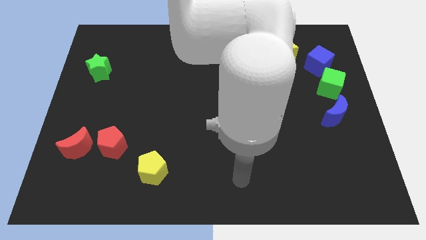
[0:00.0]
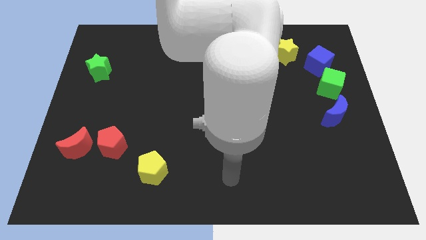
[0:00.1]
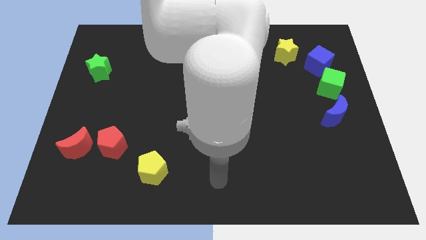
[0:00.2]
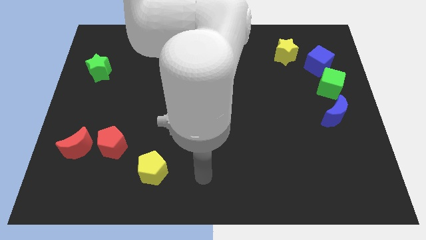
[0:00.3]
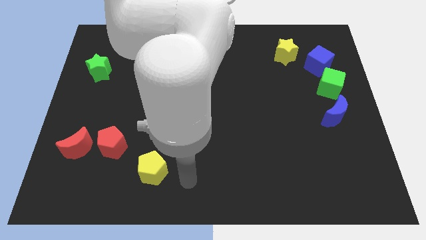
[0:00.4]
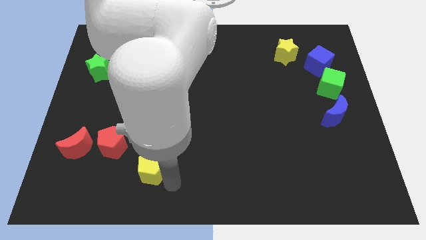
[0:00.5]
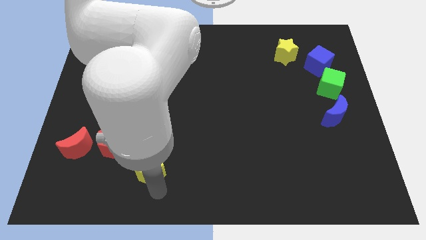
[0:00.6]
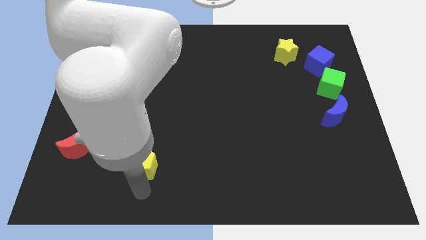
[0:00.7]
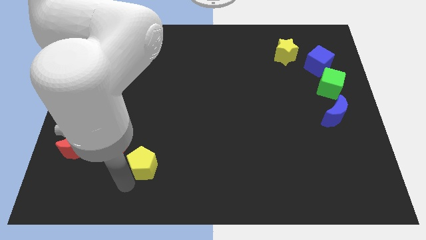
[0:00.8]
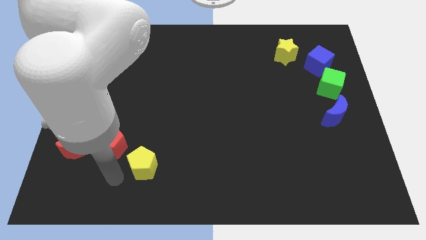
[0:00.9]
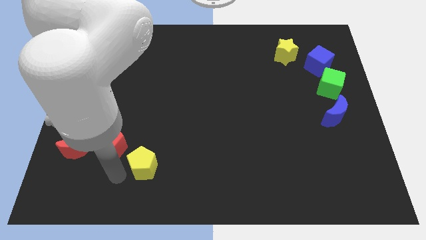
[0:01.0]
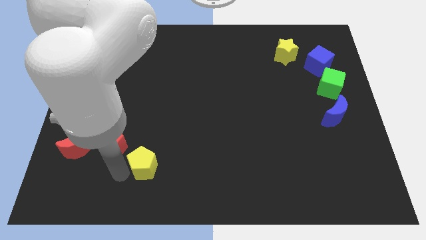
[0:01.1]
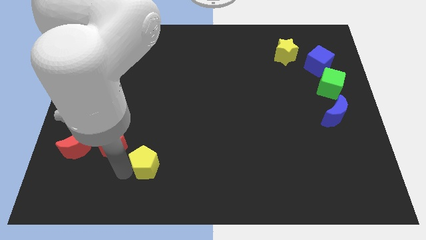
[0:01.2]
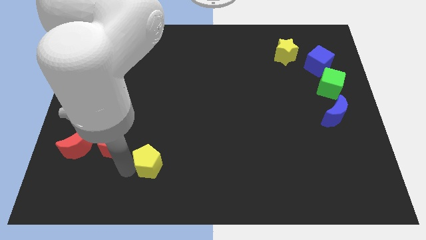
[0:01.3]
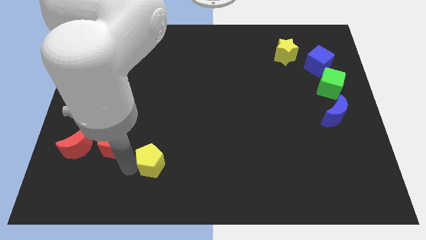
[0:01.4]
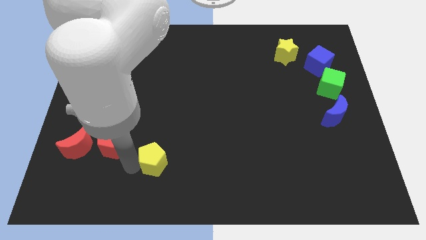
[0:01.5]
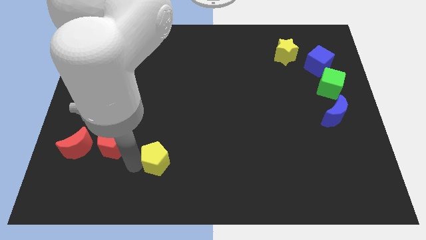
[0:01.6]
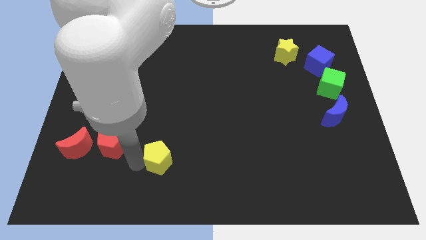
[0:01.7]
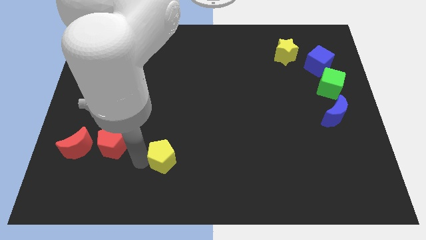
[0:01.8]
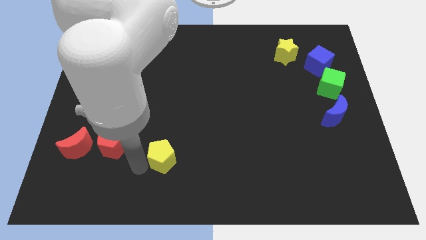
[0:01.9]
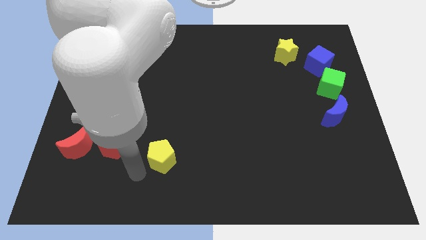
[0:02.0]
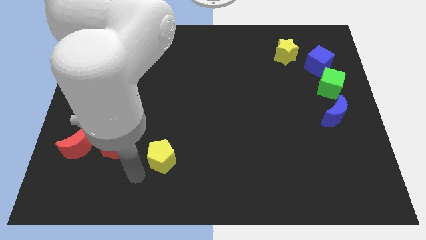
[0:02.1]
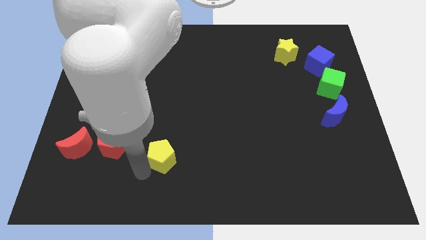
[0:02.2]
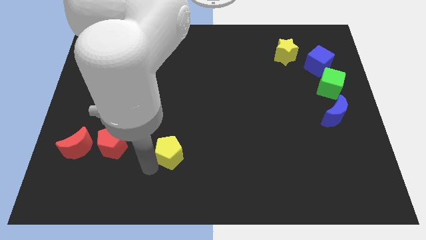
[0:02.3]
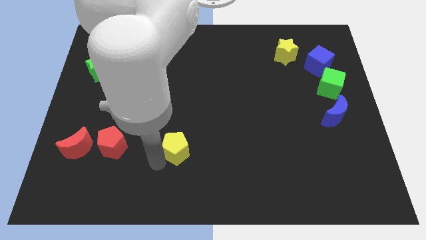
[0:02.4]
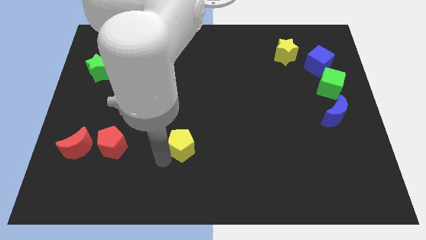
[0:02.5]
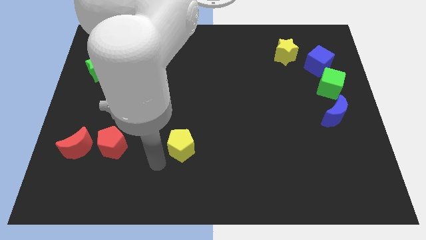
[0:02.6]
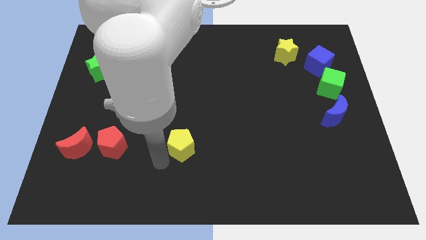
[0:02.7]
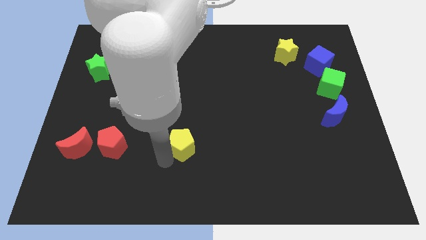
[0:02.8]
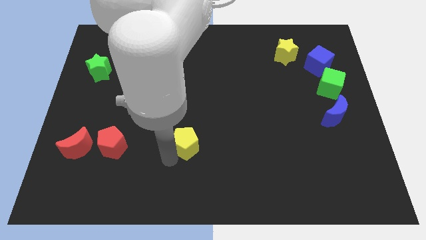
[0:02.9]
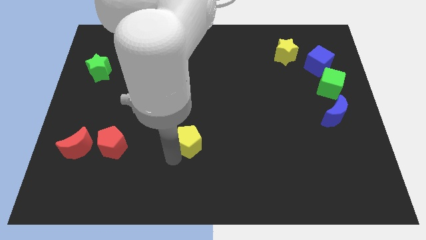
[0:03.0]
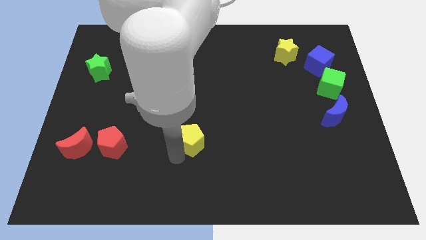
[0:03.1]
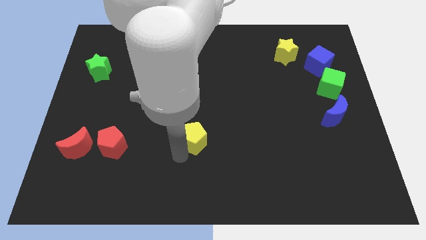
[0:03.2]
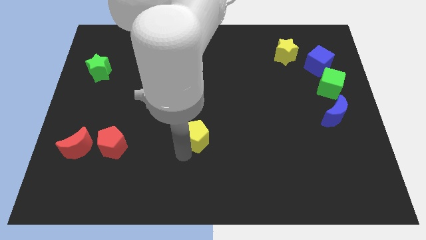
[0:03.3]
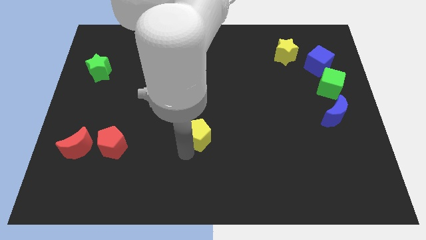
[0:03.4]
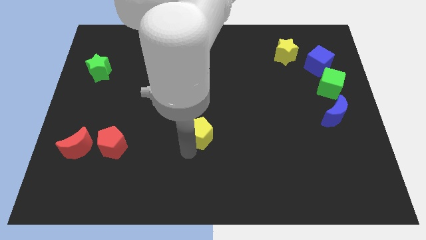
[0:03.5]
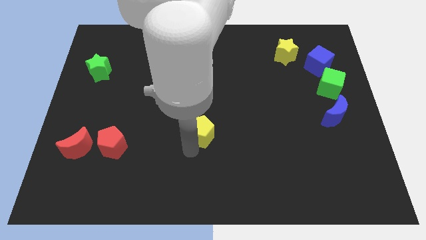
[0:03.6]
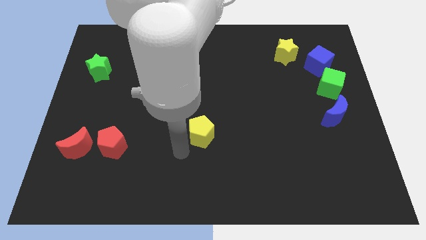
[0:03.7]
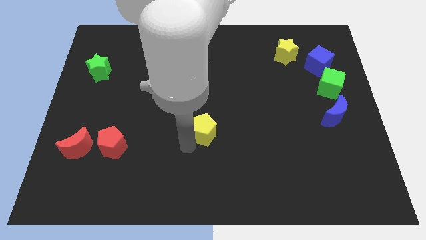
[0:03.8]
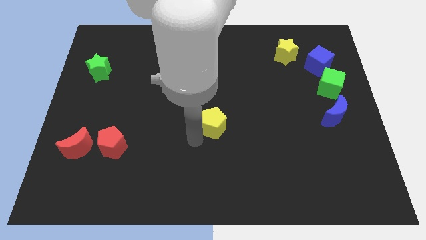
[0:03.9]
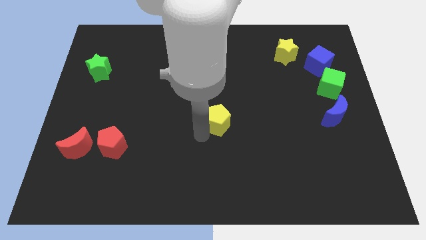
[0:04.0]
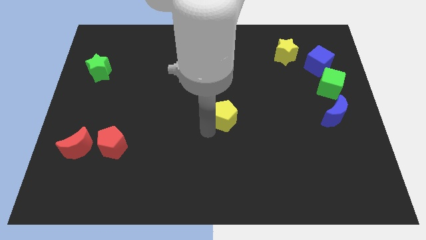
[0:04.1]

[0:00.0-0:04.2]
slide the yellow pentagon up and to the right diagonally

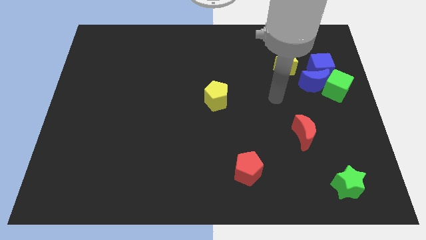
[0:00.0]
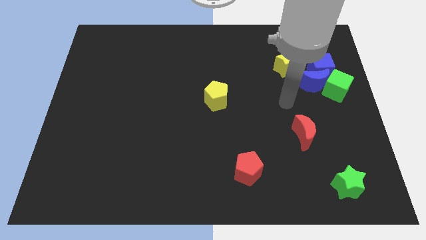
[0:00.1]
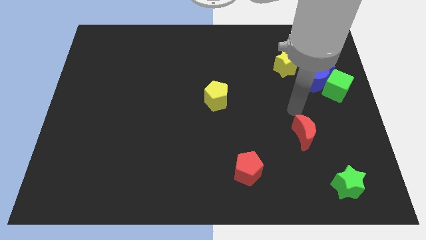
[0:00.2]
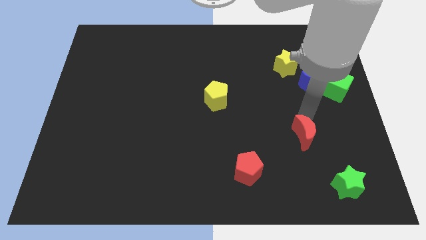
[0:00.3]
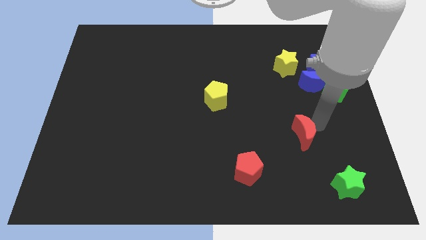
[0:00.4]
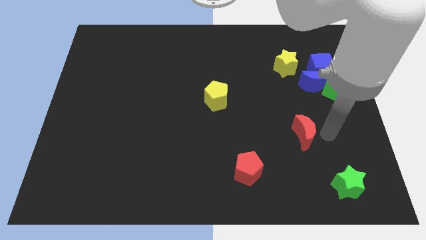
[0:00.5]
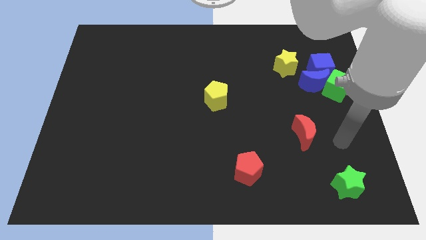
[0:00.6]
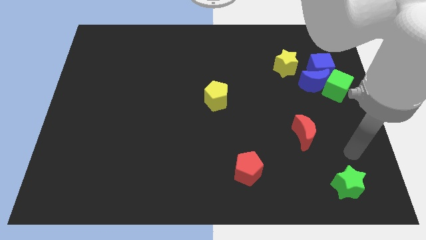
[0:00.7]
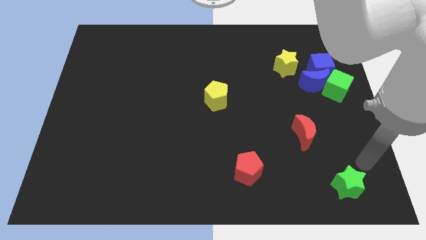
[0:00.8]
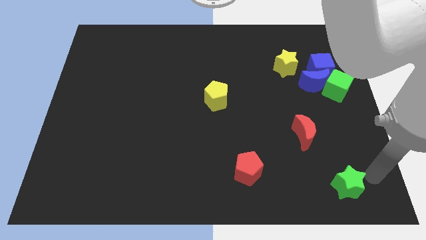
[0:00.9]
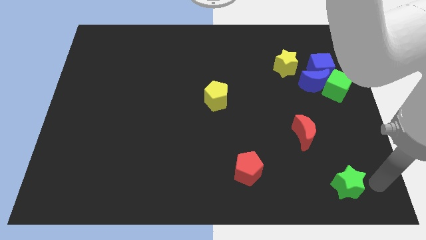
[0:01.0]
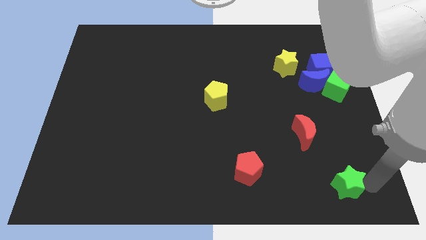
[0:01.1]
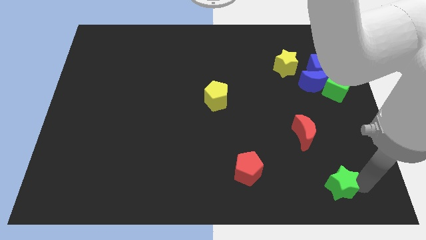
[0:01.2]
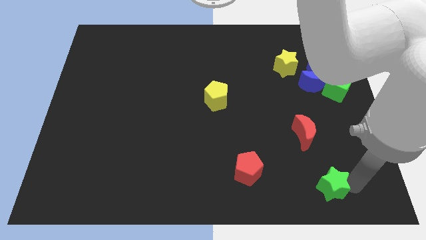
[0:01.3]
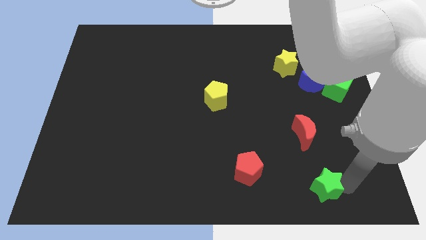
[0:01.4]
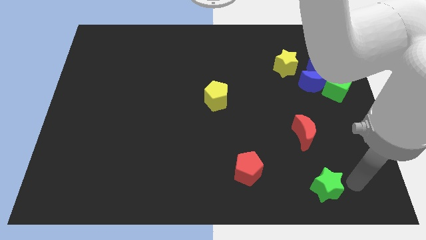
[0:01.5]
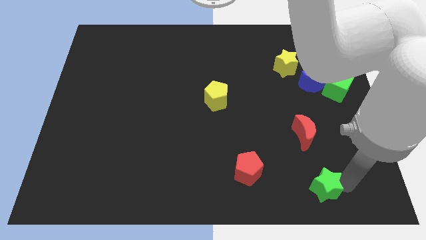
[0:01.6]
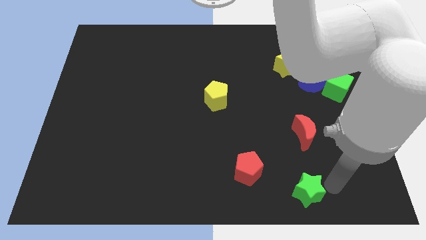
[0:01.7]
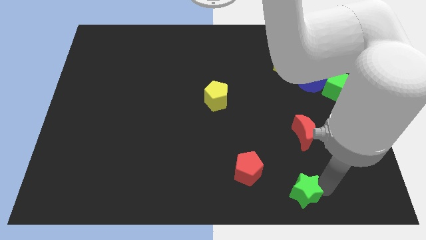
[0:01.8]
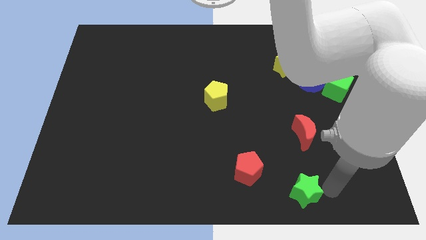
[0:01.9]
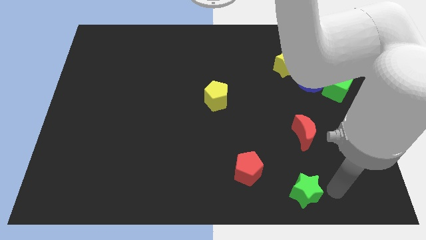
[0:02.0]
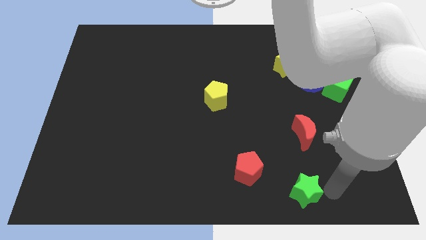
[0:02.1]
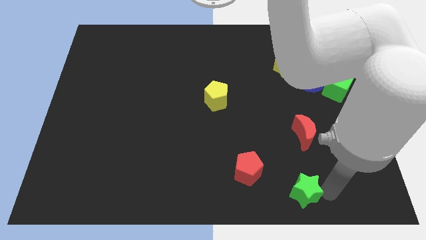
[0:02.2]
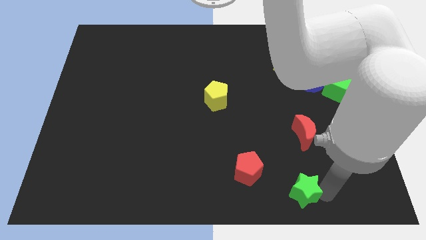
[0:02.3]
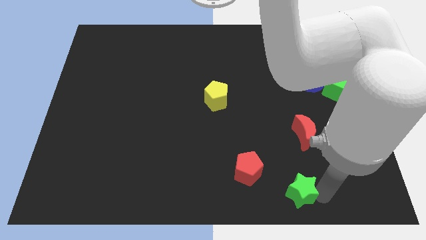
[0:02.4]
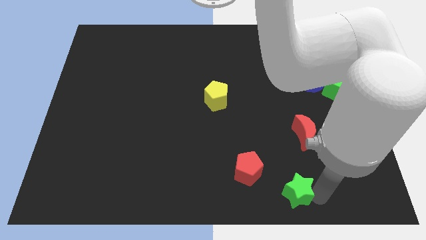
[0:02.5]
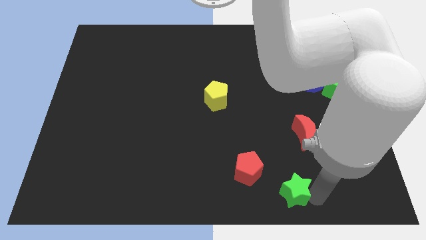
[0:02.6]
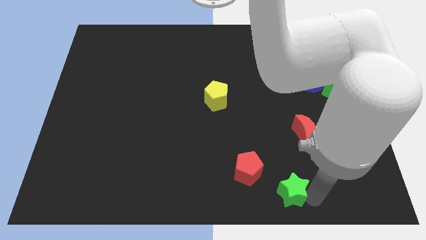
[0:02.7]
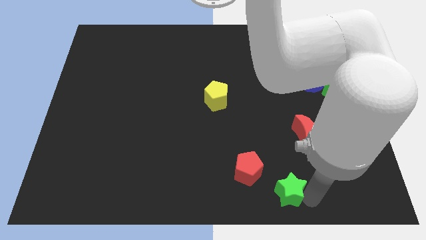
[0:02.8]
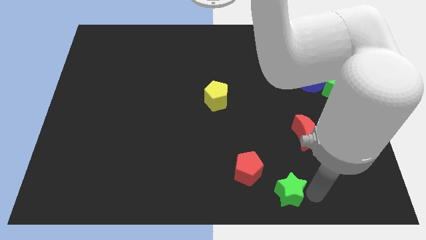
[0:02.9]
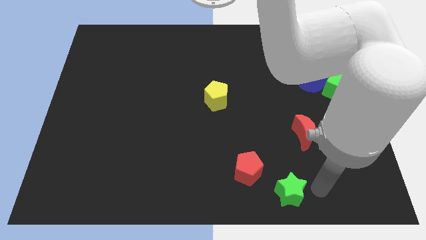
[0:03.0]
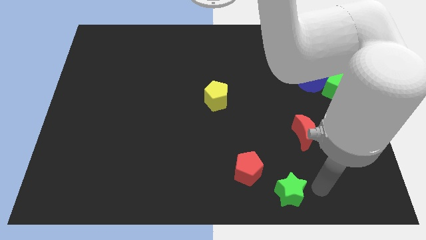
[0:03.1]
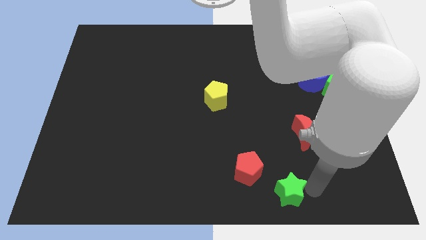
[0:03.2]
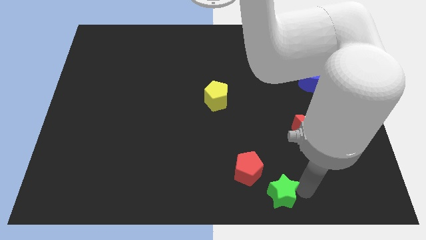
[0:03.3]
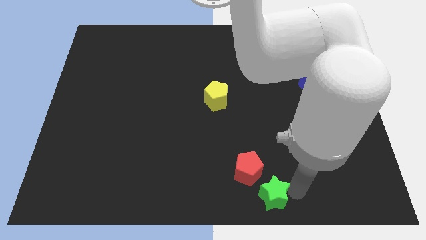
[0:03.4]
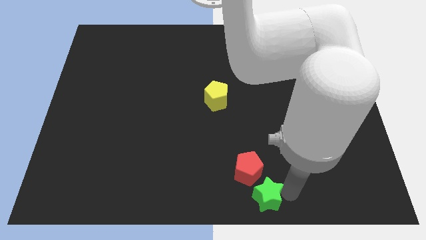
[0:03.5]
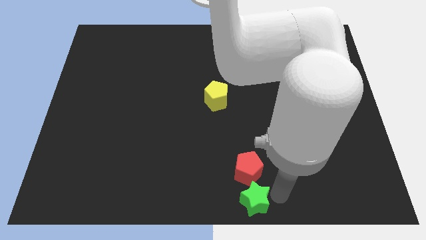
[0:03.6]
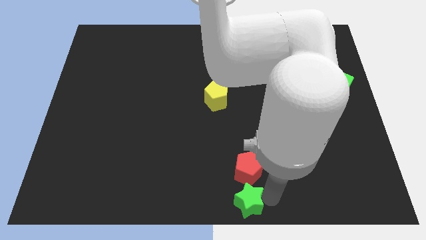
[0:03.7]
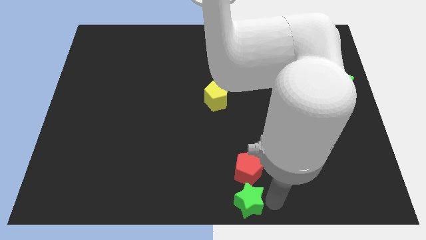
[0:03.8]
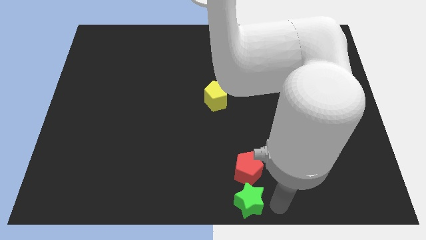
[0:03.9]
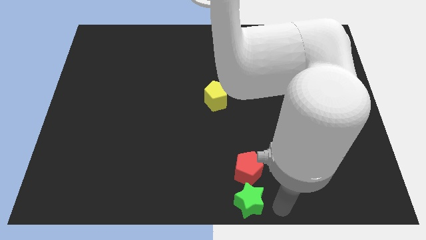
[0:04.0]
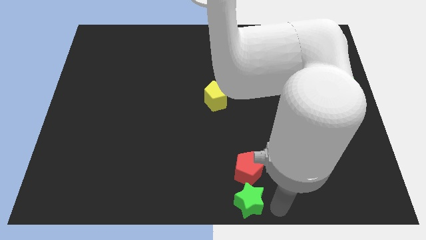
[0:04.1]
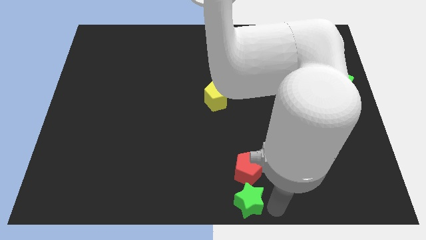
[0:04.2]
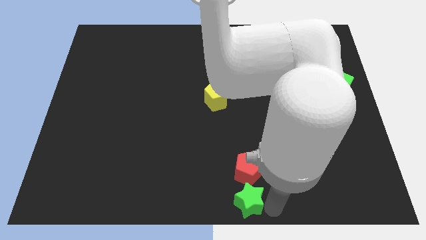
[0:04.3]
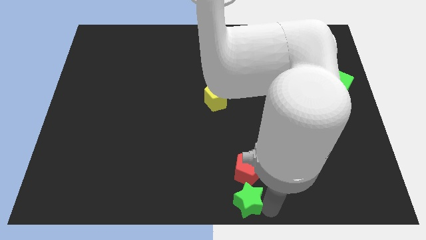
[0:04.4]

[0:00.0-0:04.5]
move the green star to the left
